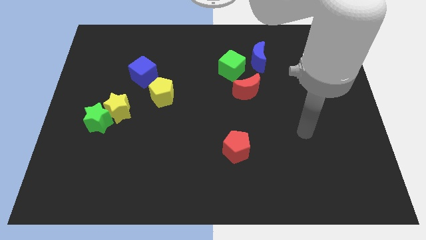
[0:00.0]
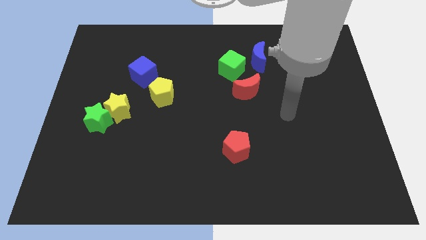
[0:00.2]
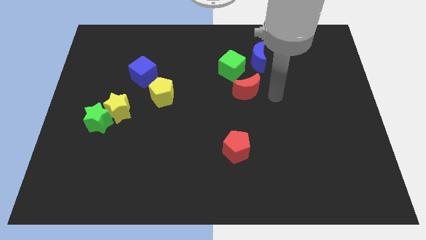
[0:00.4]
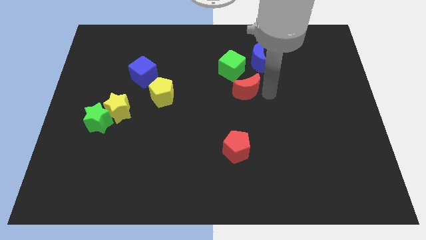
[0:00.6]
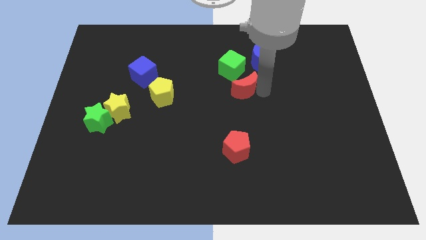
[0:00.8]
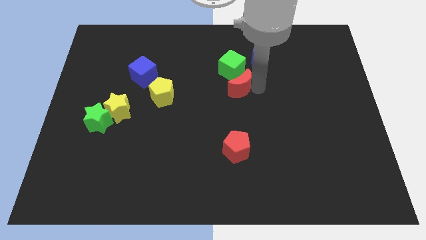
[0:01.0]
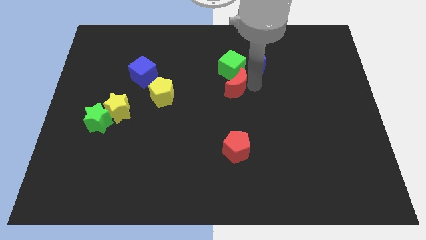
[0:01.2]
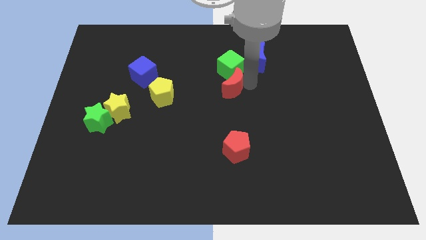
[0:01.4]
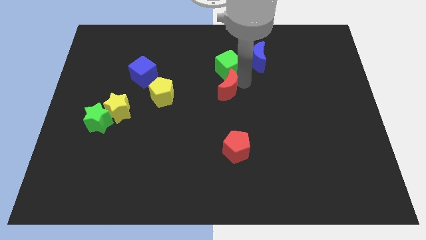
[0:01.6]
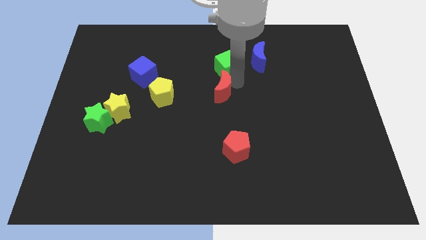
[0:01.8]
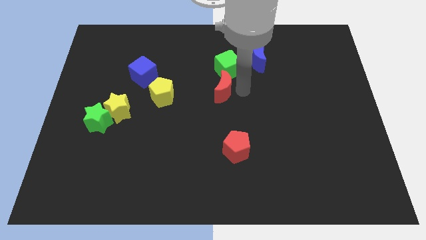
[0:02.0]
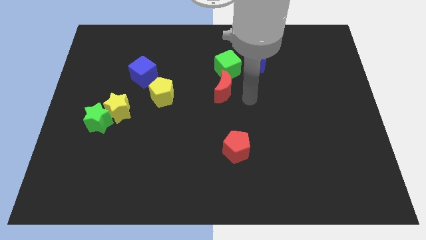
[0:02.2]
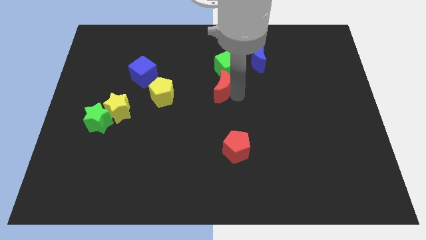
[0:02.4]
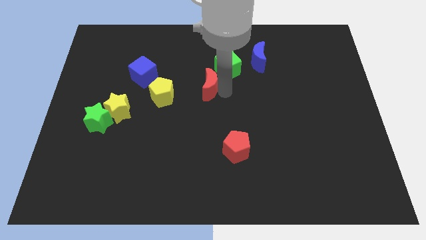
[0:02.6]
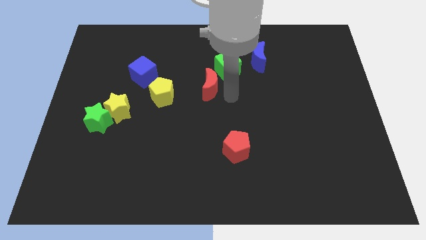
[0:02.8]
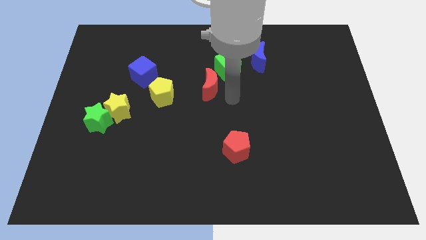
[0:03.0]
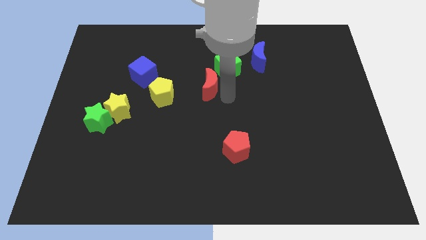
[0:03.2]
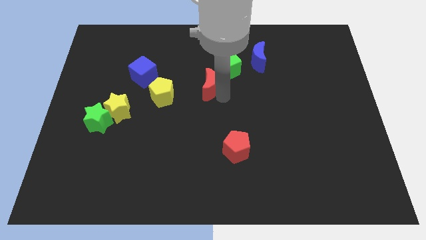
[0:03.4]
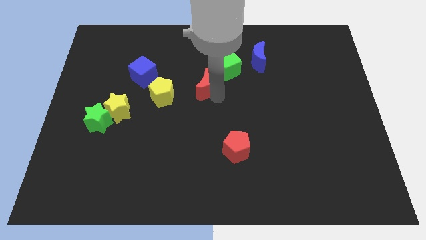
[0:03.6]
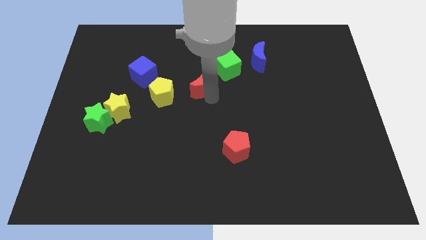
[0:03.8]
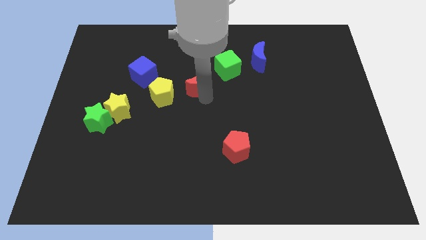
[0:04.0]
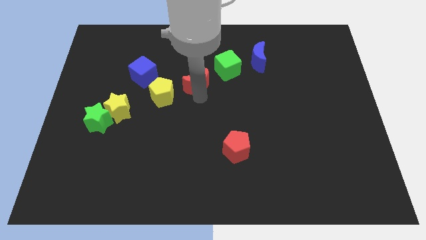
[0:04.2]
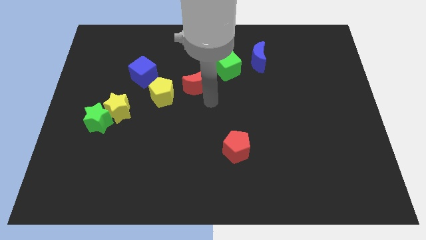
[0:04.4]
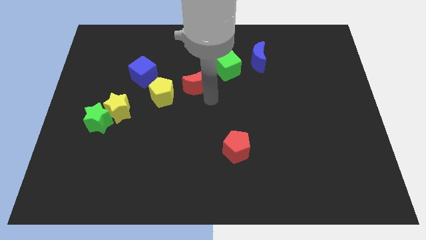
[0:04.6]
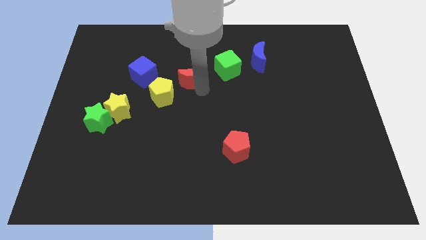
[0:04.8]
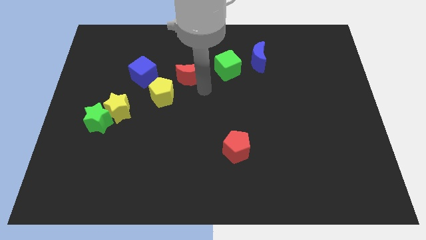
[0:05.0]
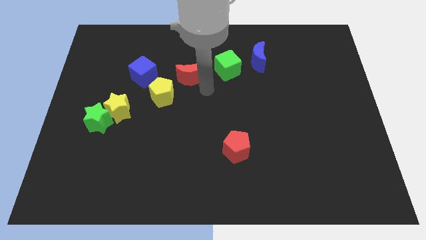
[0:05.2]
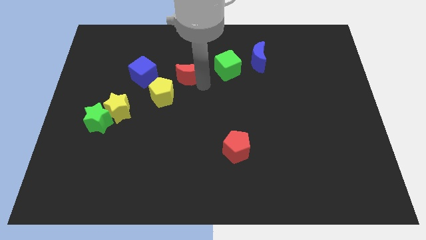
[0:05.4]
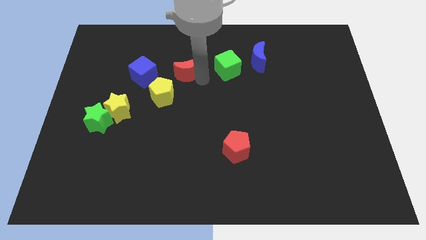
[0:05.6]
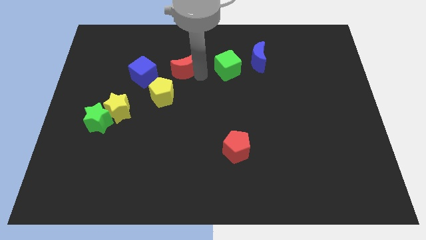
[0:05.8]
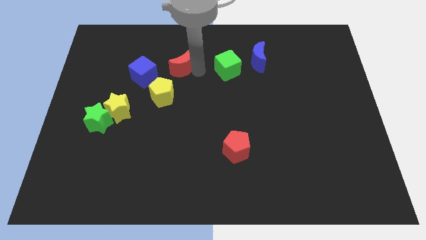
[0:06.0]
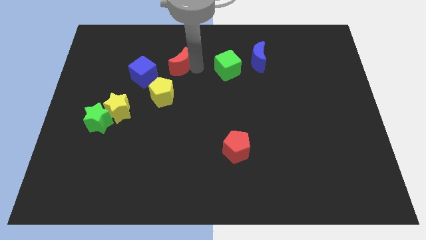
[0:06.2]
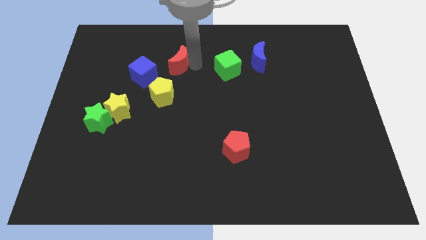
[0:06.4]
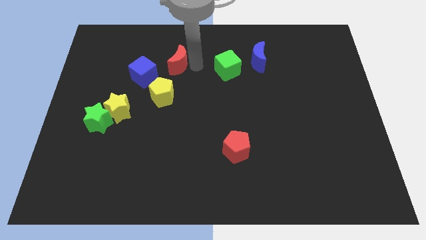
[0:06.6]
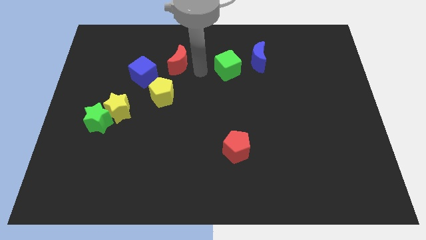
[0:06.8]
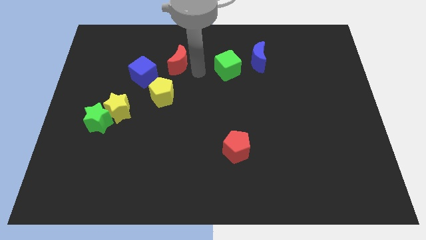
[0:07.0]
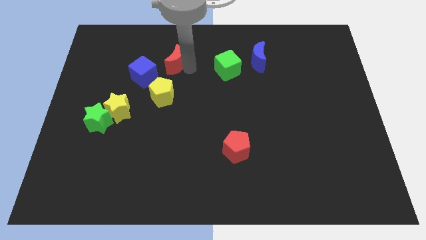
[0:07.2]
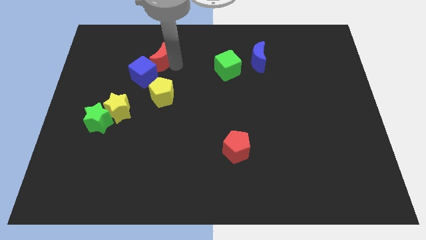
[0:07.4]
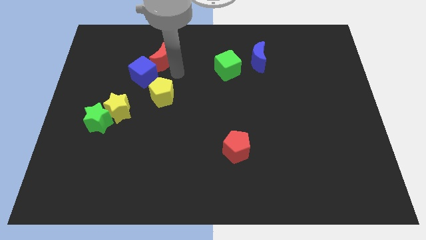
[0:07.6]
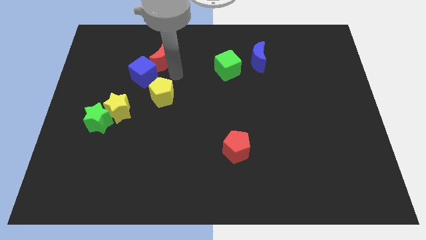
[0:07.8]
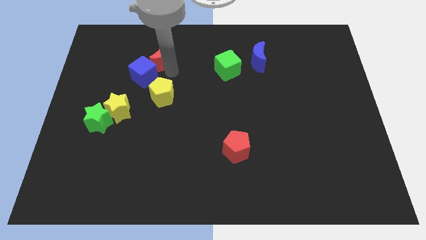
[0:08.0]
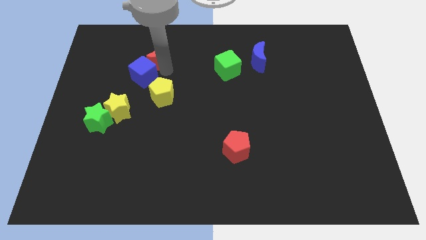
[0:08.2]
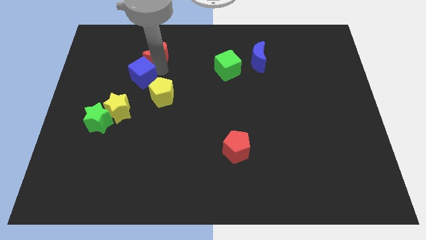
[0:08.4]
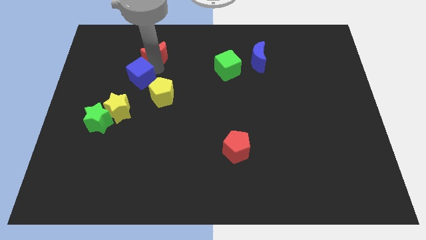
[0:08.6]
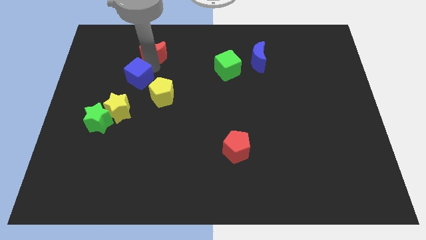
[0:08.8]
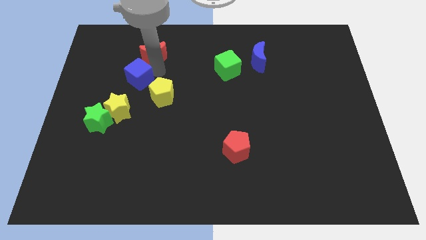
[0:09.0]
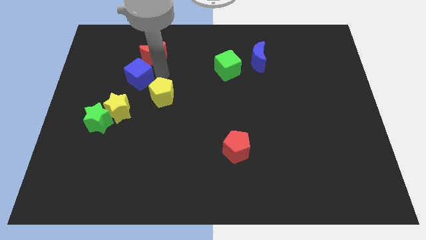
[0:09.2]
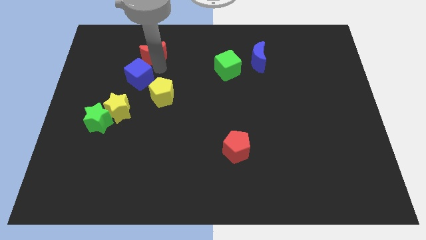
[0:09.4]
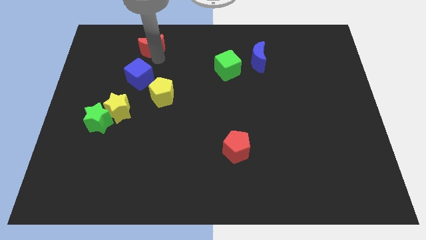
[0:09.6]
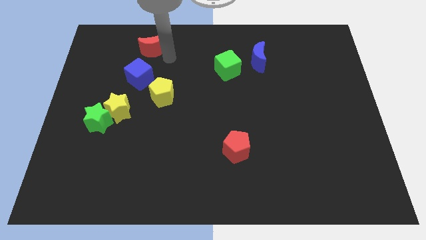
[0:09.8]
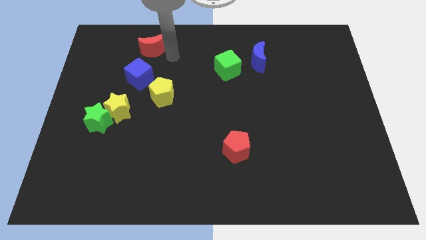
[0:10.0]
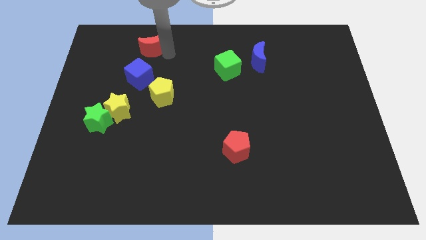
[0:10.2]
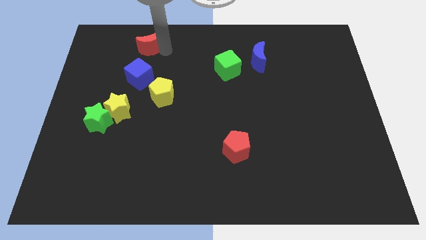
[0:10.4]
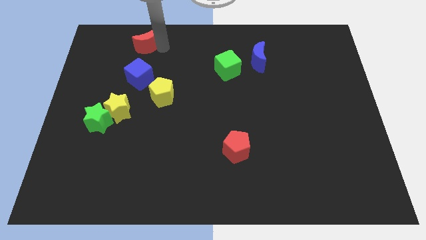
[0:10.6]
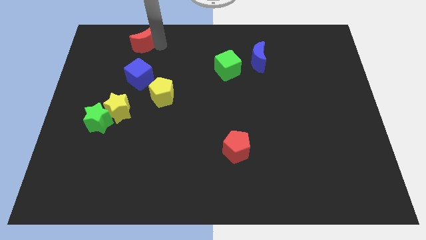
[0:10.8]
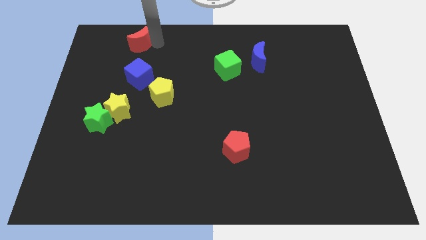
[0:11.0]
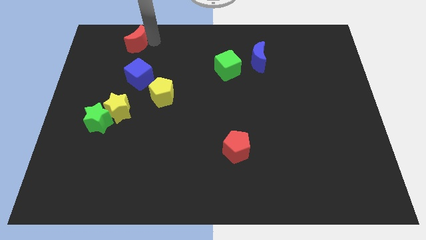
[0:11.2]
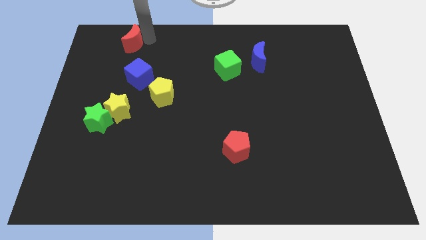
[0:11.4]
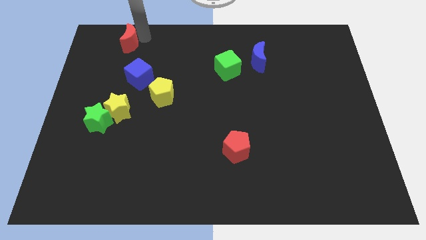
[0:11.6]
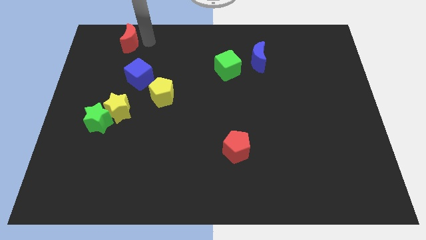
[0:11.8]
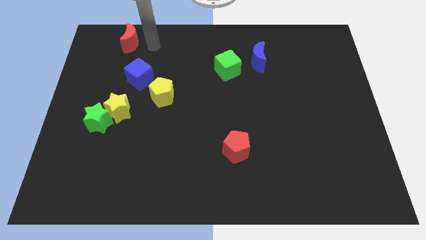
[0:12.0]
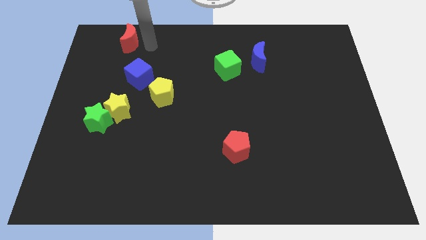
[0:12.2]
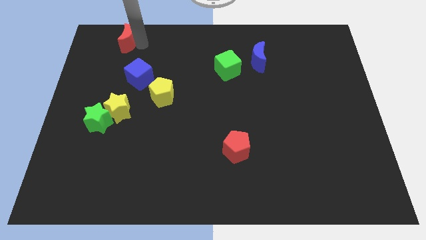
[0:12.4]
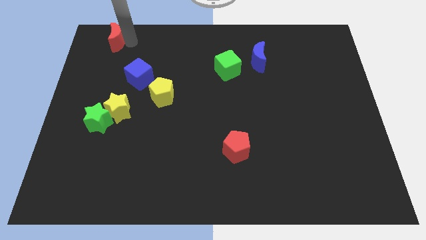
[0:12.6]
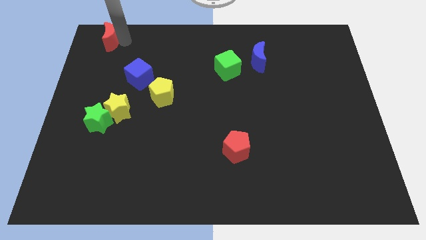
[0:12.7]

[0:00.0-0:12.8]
put the red moon to the top left corner
